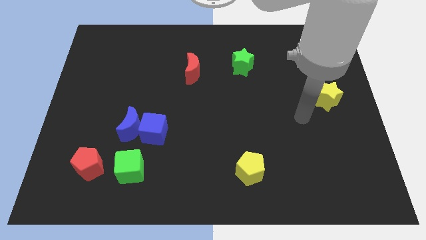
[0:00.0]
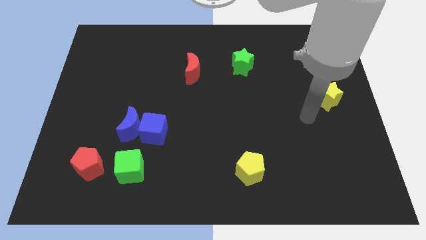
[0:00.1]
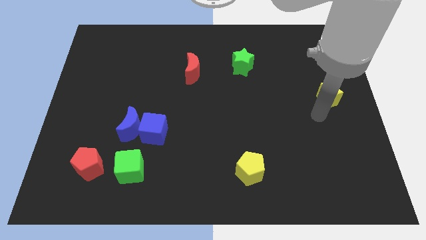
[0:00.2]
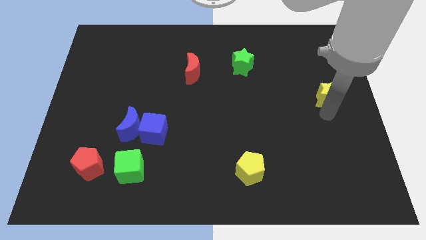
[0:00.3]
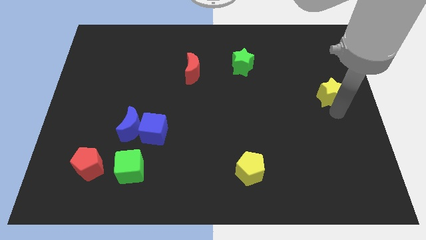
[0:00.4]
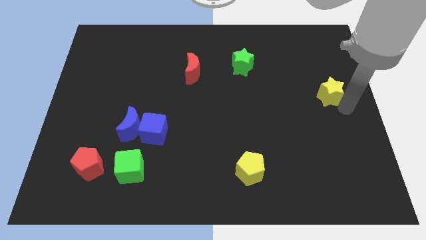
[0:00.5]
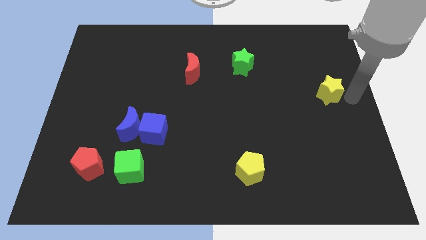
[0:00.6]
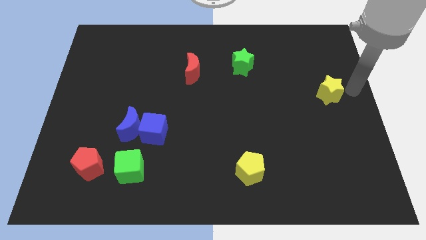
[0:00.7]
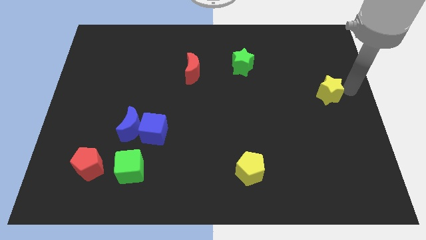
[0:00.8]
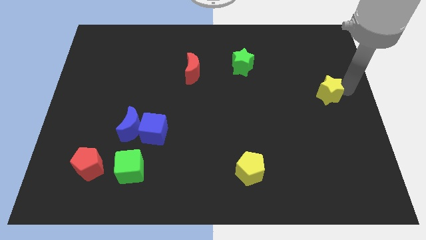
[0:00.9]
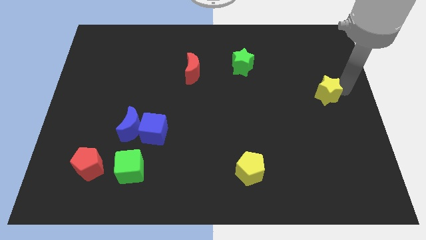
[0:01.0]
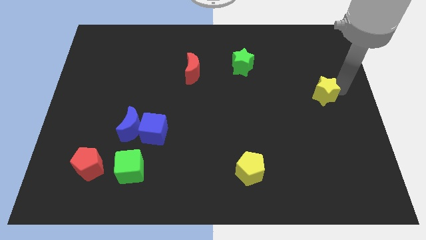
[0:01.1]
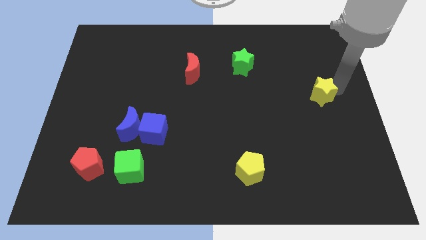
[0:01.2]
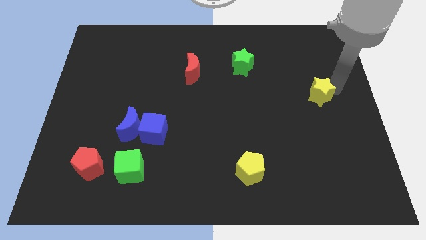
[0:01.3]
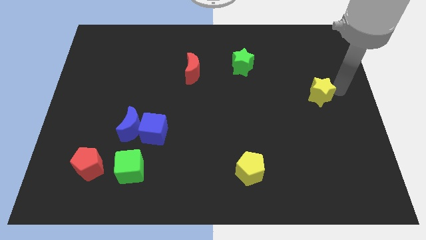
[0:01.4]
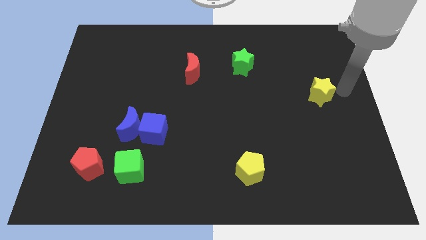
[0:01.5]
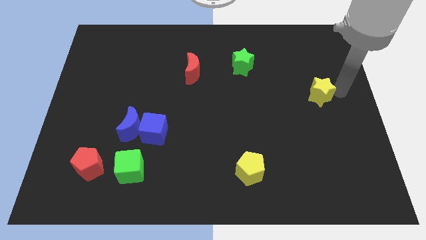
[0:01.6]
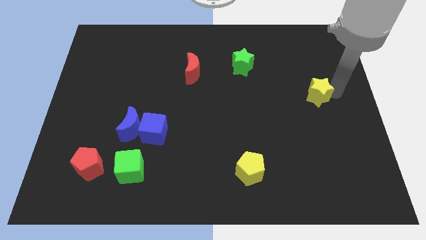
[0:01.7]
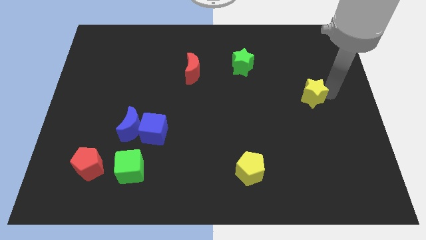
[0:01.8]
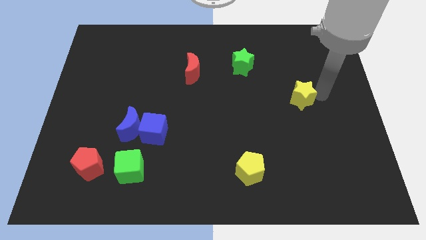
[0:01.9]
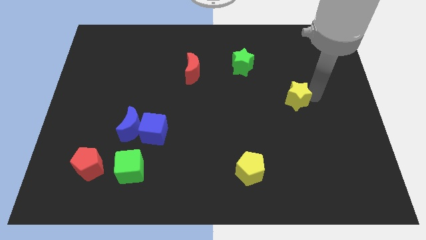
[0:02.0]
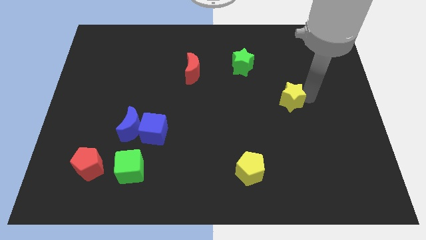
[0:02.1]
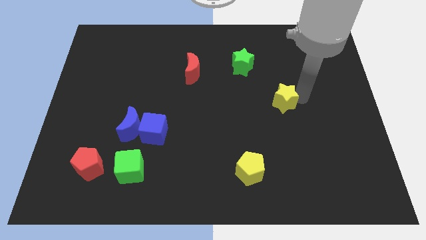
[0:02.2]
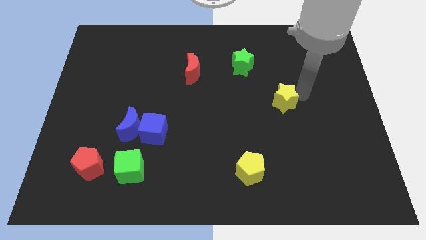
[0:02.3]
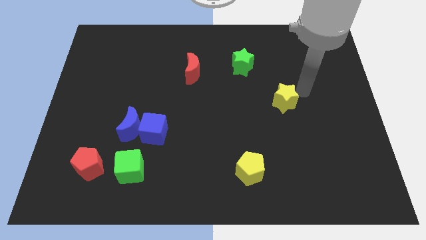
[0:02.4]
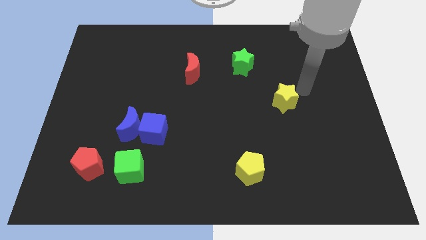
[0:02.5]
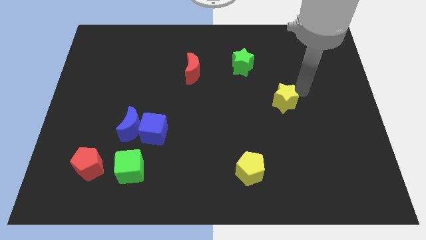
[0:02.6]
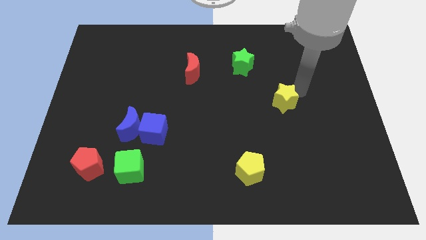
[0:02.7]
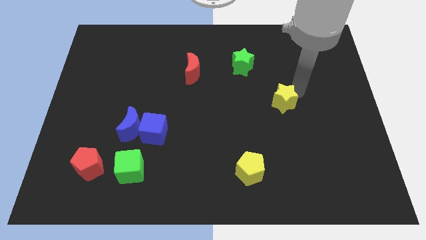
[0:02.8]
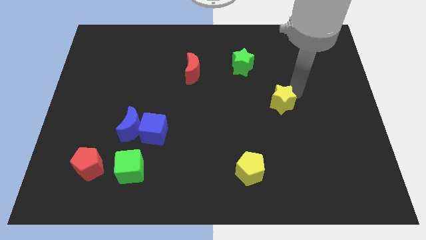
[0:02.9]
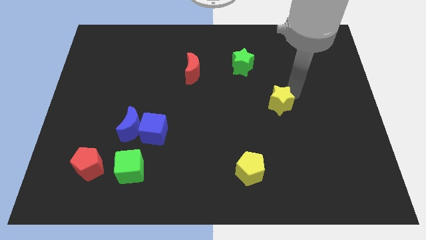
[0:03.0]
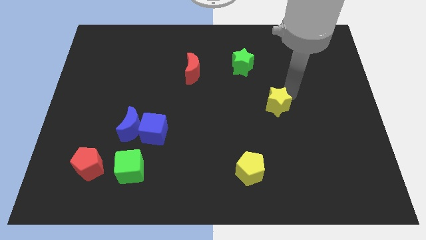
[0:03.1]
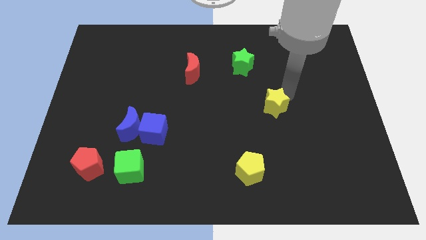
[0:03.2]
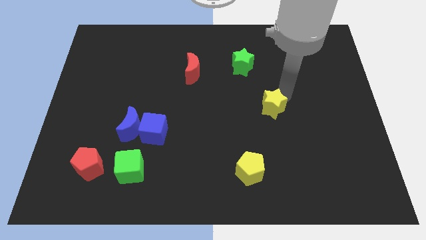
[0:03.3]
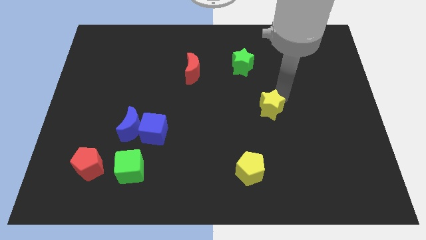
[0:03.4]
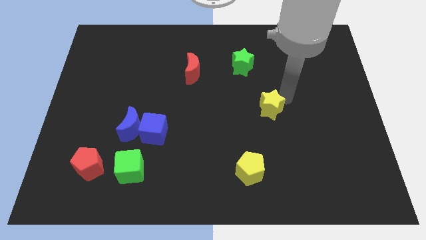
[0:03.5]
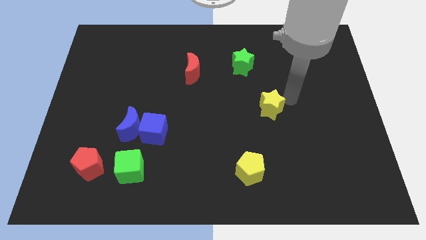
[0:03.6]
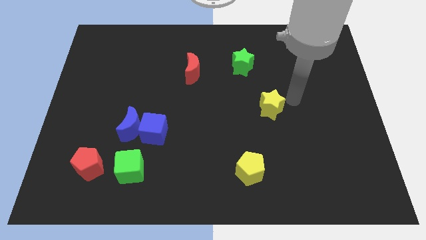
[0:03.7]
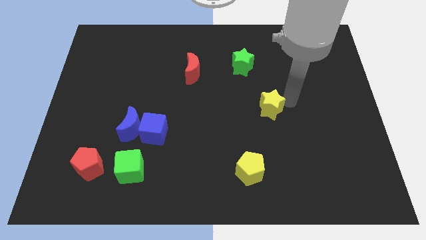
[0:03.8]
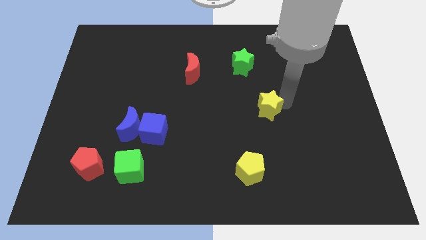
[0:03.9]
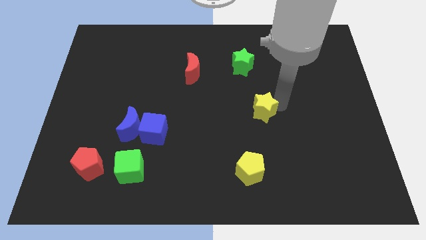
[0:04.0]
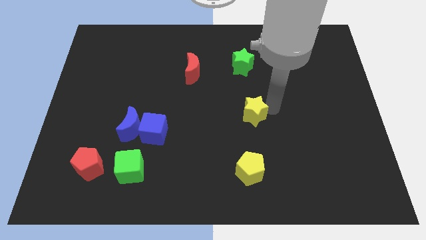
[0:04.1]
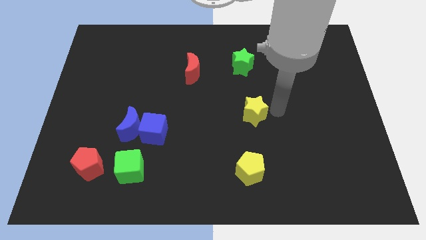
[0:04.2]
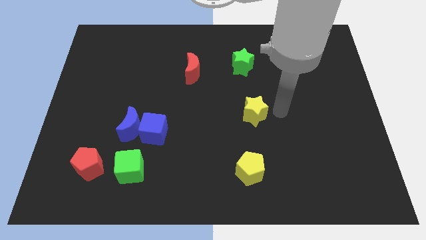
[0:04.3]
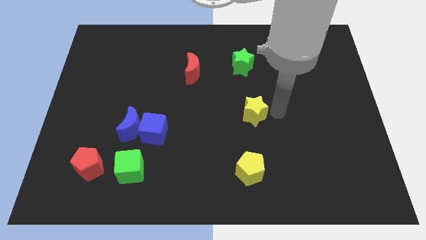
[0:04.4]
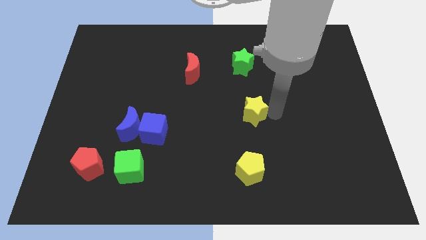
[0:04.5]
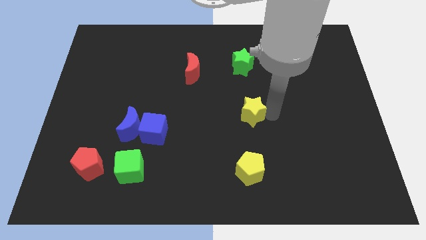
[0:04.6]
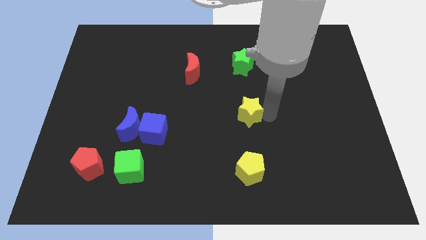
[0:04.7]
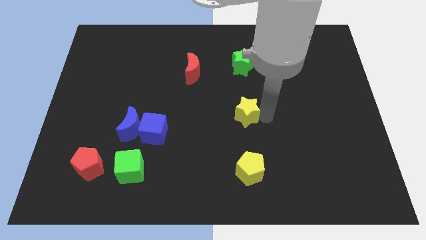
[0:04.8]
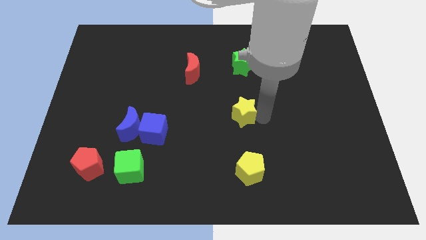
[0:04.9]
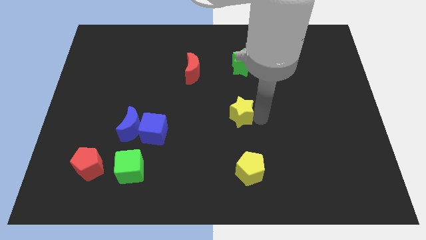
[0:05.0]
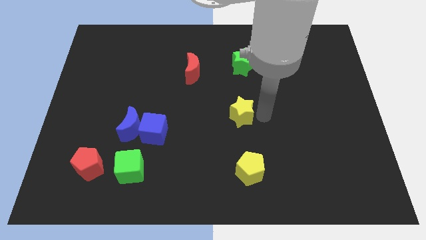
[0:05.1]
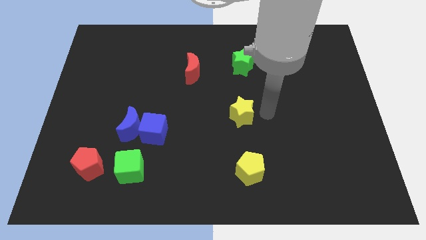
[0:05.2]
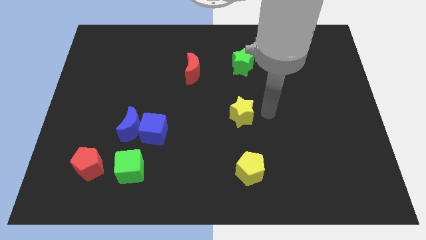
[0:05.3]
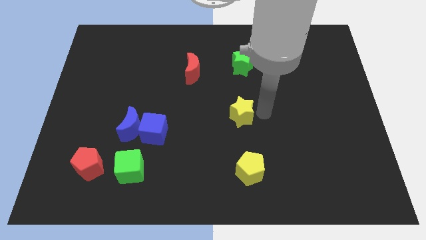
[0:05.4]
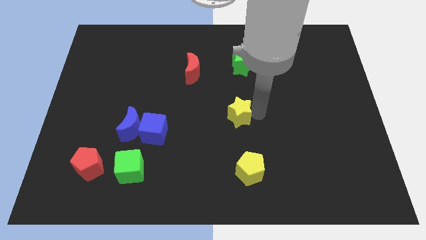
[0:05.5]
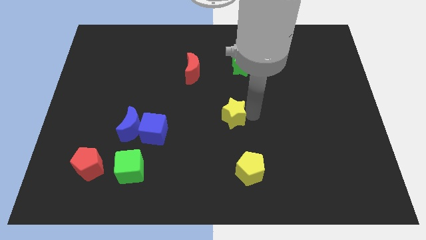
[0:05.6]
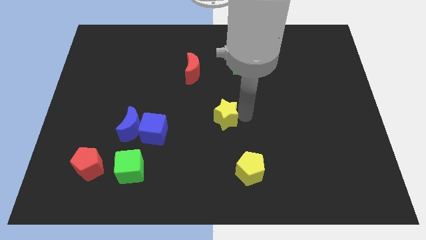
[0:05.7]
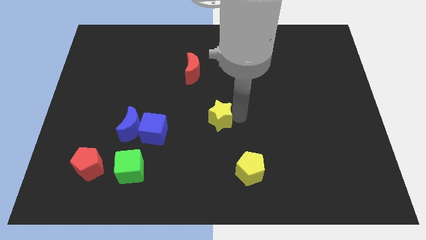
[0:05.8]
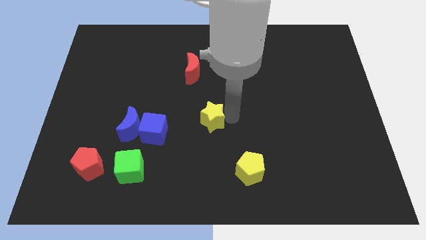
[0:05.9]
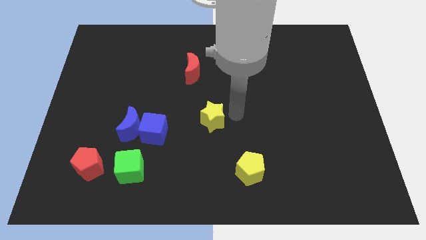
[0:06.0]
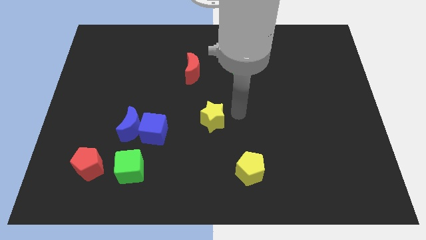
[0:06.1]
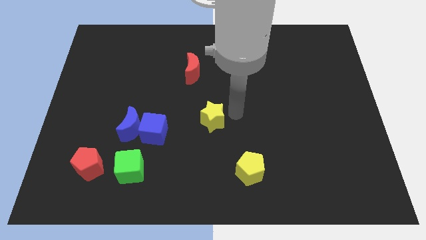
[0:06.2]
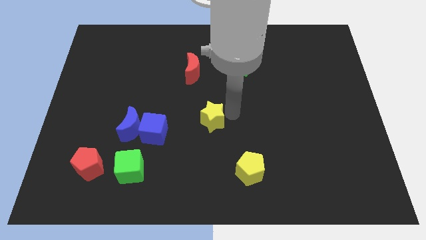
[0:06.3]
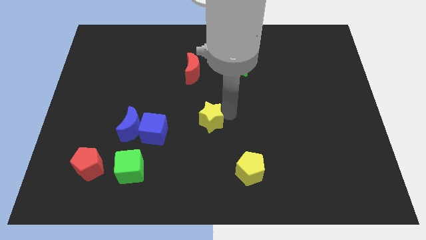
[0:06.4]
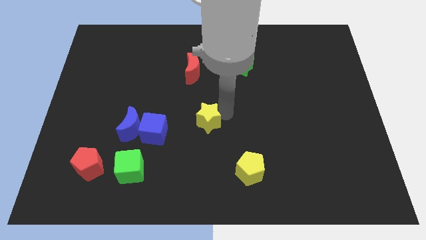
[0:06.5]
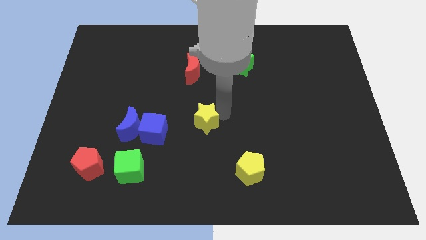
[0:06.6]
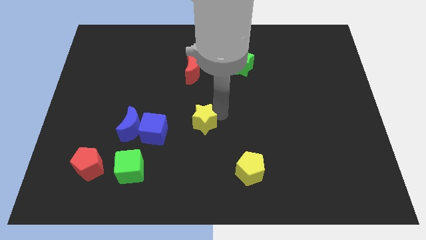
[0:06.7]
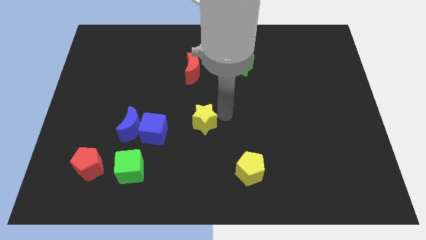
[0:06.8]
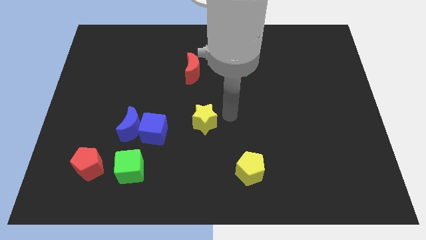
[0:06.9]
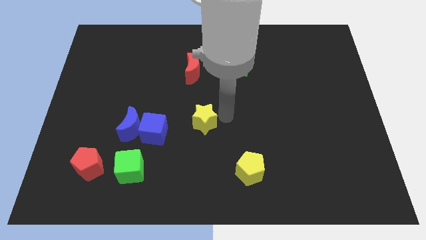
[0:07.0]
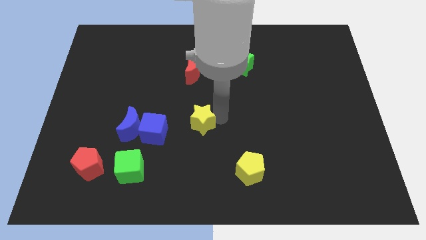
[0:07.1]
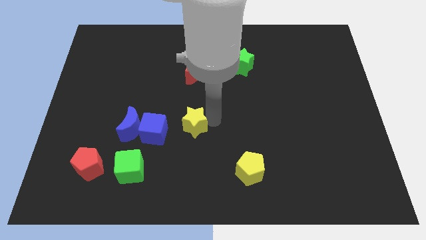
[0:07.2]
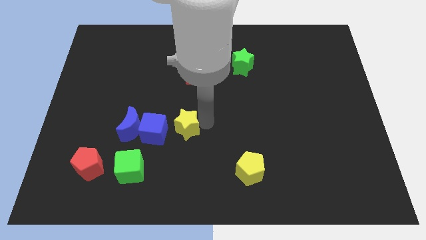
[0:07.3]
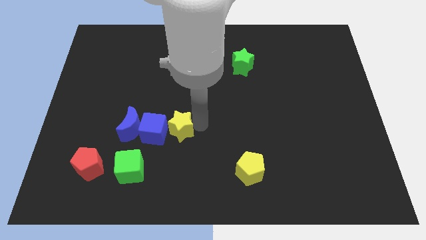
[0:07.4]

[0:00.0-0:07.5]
put the yellow star close to the blue cube
